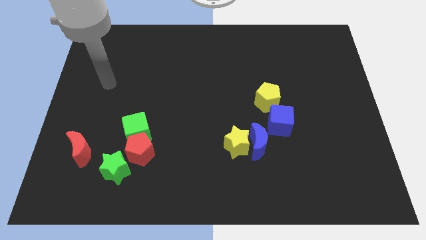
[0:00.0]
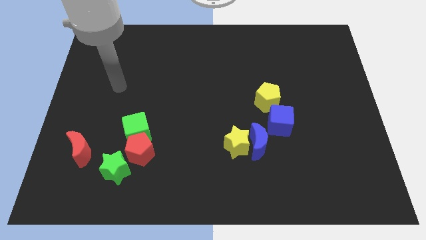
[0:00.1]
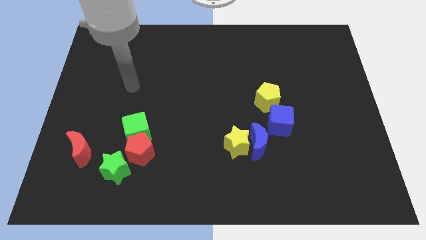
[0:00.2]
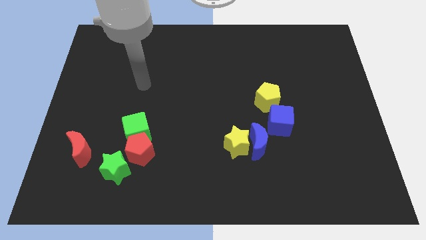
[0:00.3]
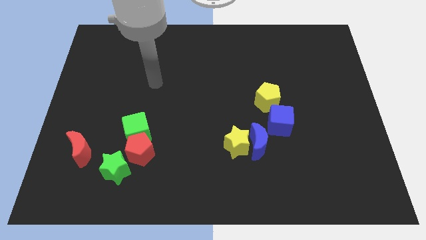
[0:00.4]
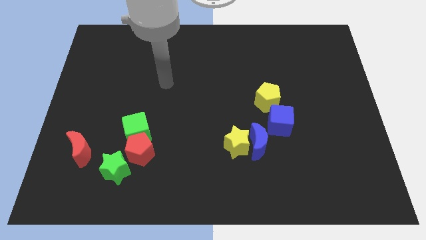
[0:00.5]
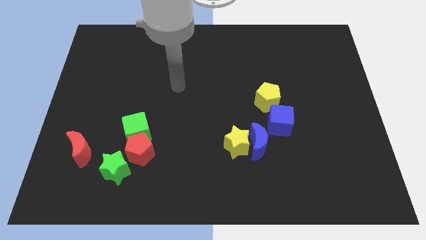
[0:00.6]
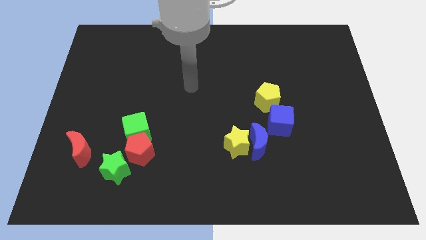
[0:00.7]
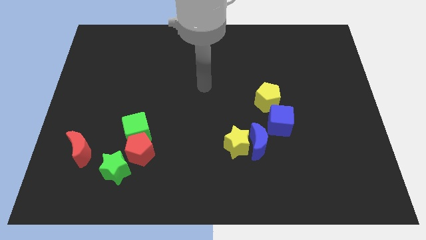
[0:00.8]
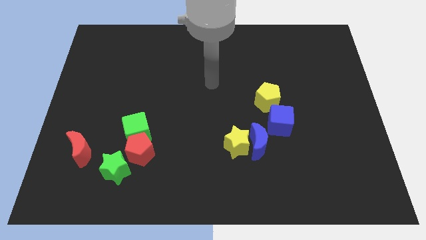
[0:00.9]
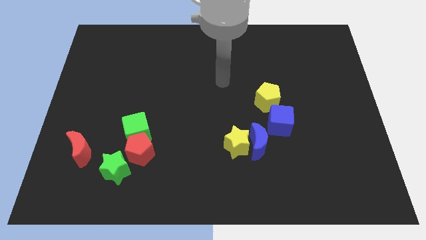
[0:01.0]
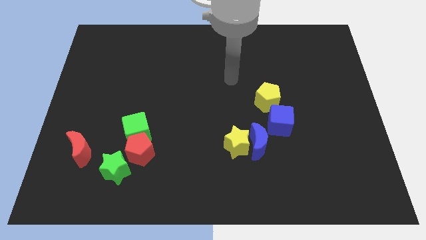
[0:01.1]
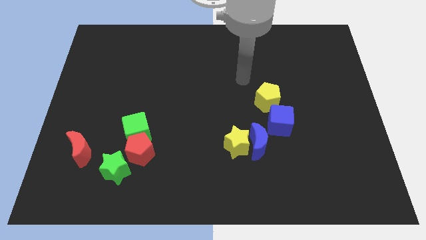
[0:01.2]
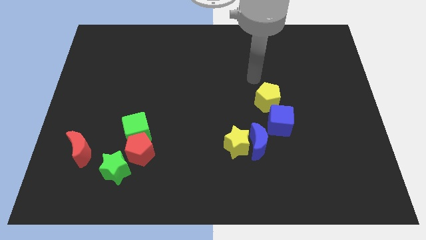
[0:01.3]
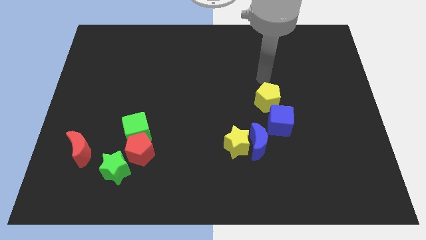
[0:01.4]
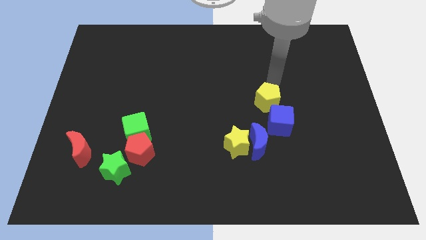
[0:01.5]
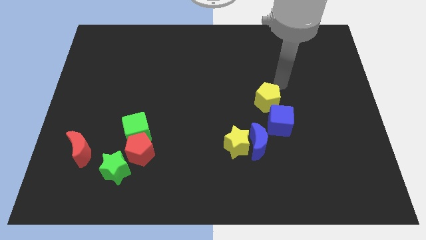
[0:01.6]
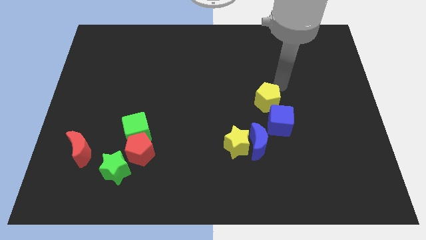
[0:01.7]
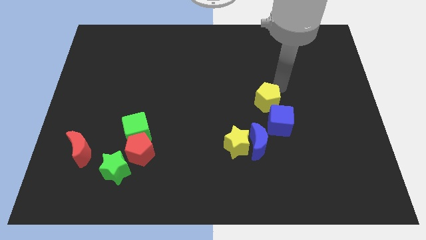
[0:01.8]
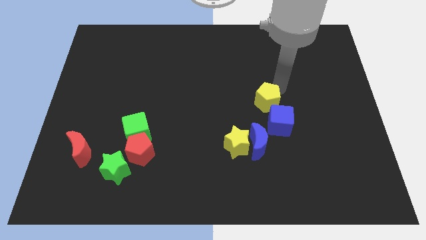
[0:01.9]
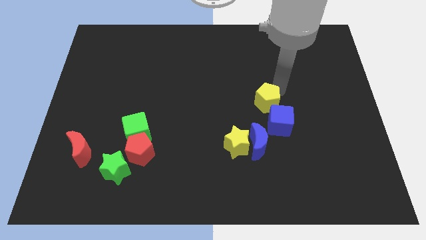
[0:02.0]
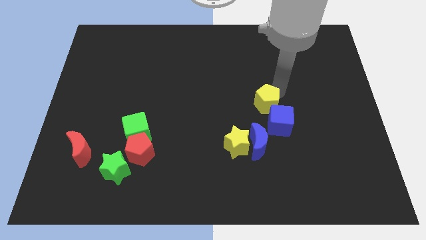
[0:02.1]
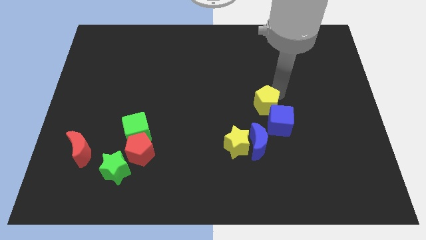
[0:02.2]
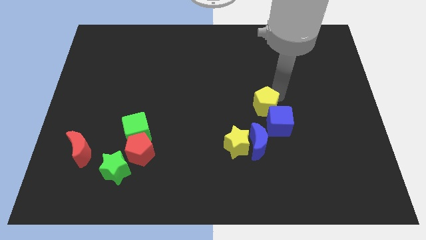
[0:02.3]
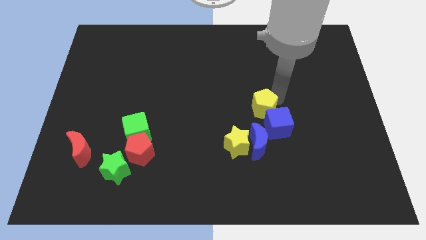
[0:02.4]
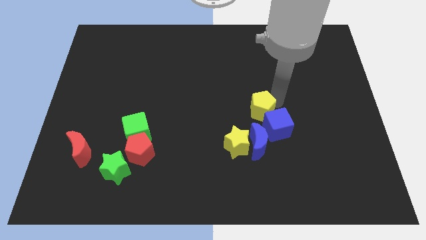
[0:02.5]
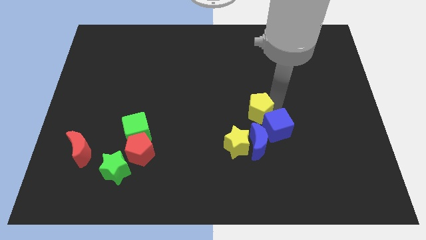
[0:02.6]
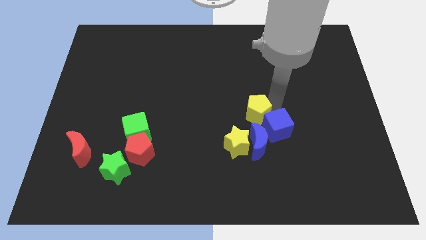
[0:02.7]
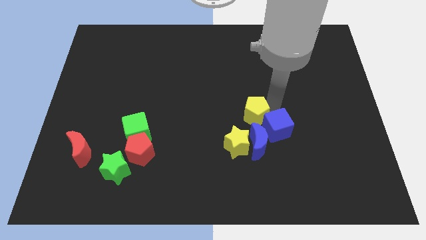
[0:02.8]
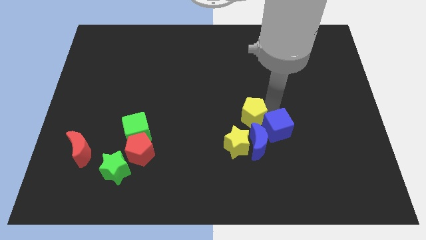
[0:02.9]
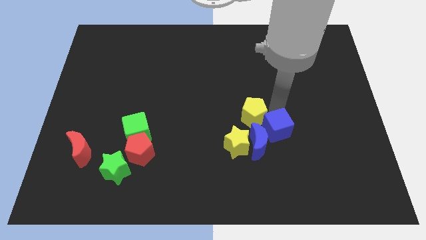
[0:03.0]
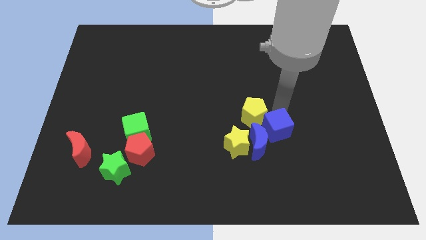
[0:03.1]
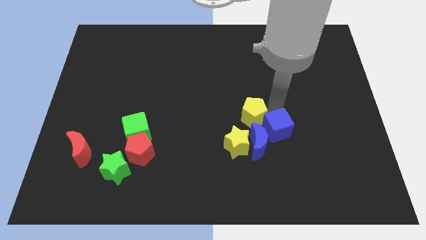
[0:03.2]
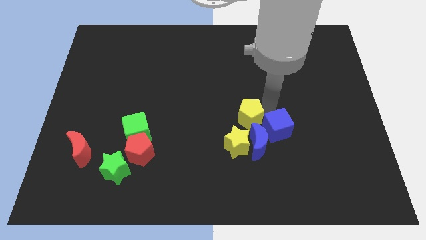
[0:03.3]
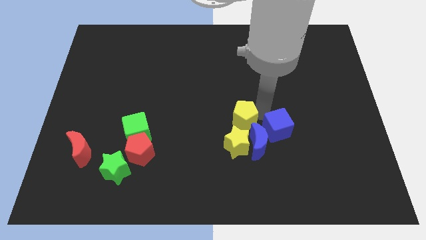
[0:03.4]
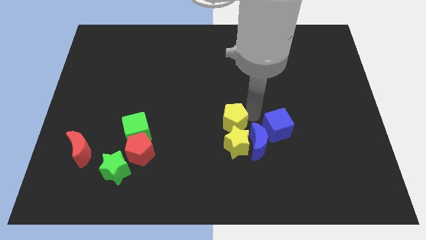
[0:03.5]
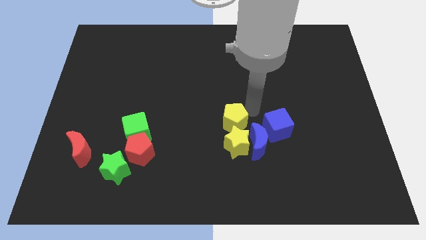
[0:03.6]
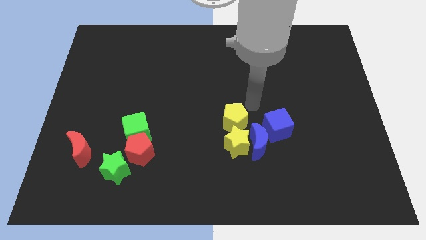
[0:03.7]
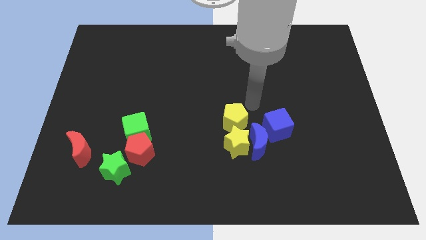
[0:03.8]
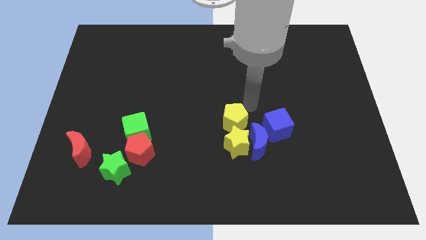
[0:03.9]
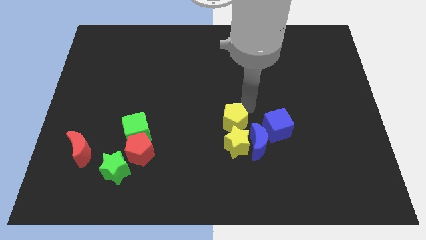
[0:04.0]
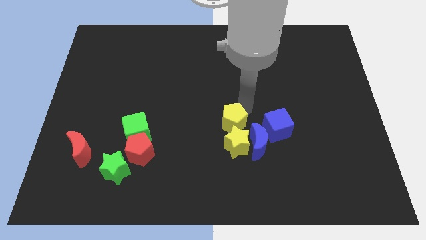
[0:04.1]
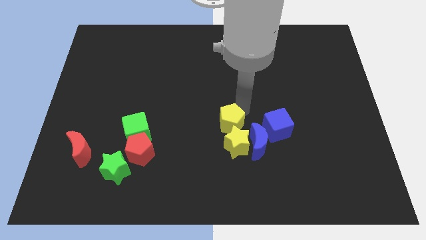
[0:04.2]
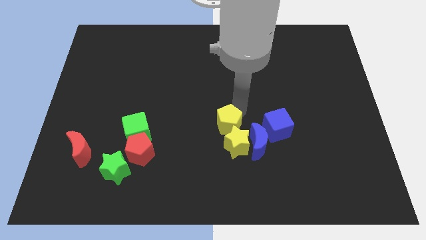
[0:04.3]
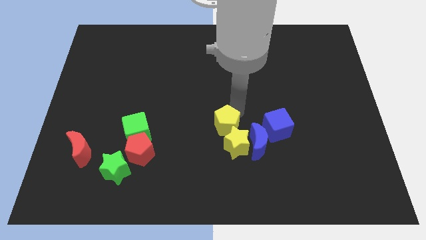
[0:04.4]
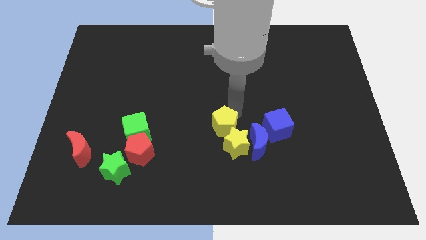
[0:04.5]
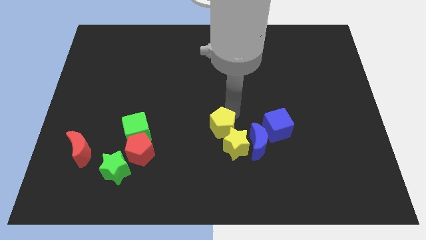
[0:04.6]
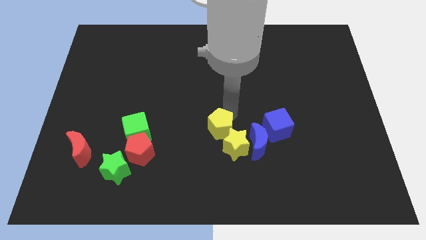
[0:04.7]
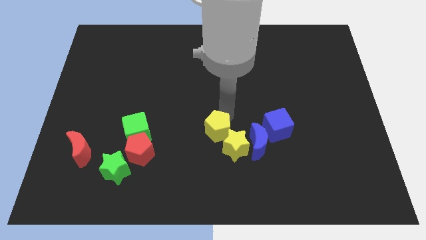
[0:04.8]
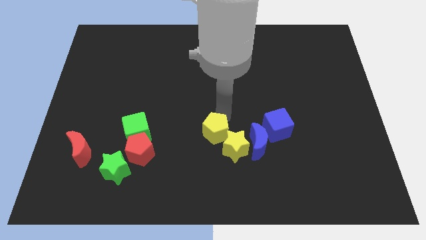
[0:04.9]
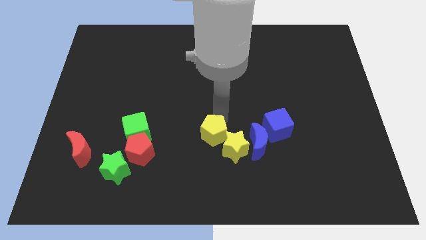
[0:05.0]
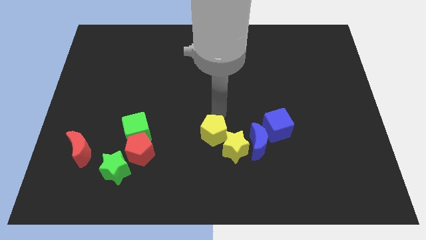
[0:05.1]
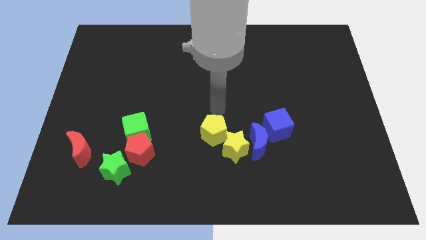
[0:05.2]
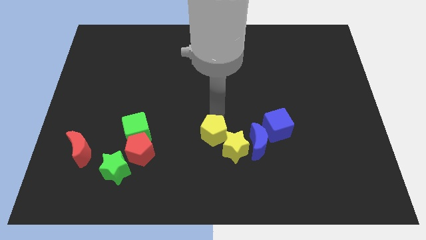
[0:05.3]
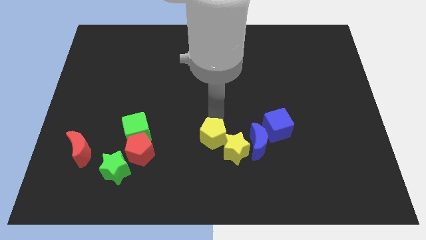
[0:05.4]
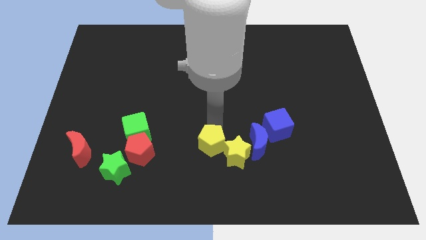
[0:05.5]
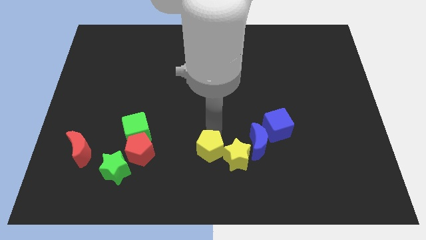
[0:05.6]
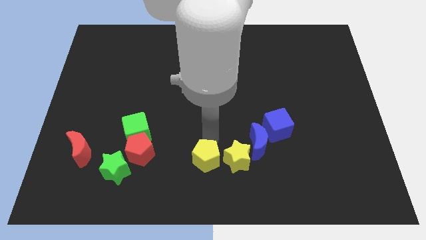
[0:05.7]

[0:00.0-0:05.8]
put the yellow pentagon to the bottom side
